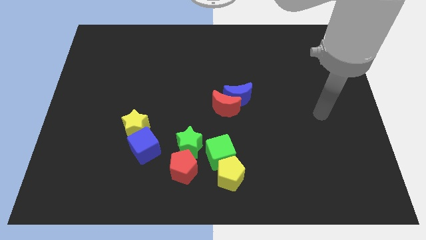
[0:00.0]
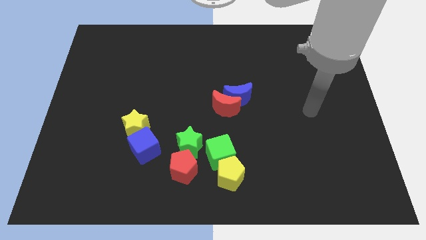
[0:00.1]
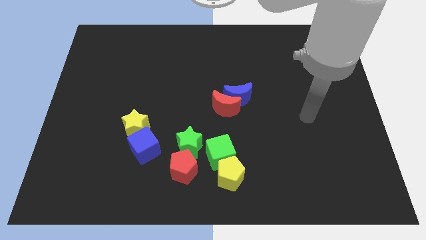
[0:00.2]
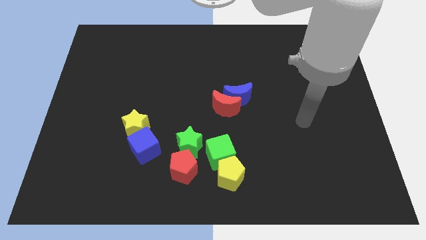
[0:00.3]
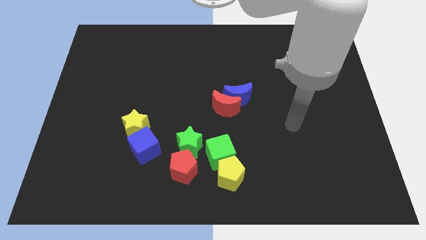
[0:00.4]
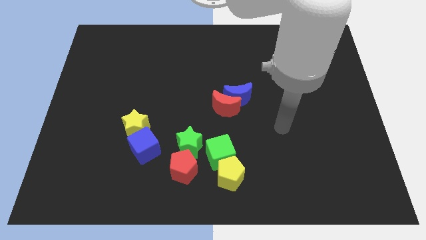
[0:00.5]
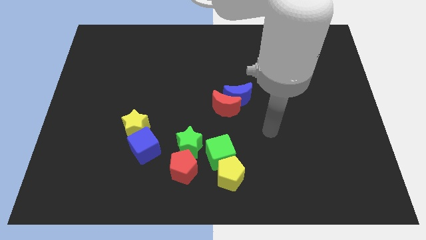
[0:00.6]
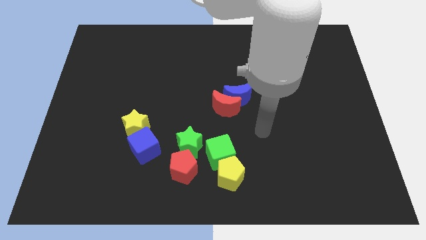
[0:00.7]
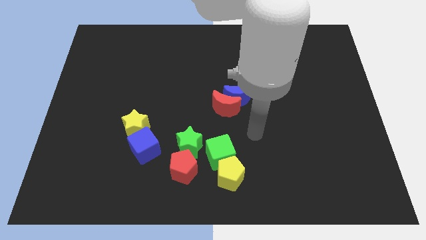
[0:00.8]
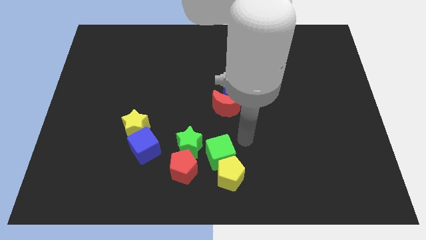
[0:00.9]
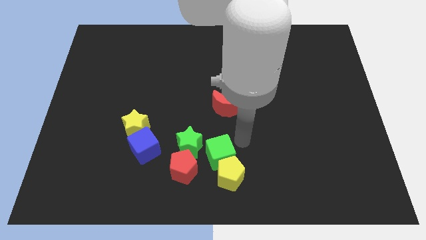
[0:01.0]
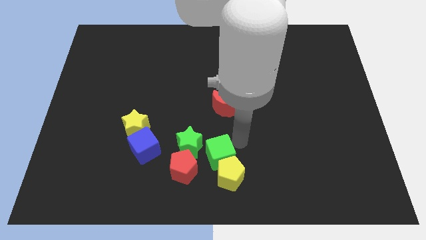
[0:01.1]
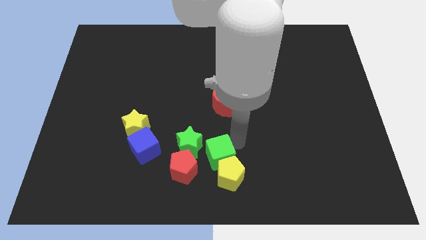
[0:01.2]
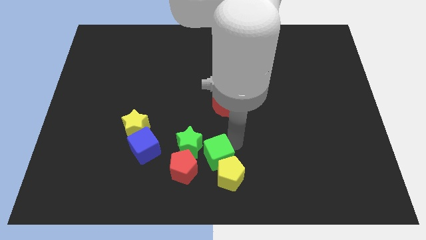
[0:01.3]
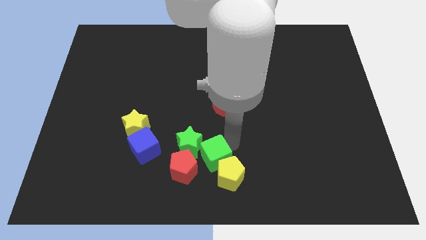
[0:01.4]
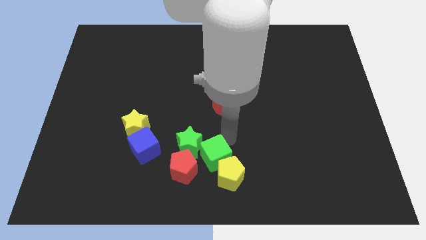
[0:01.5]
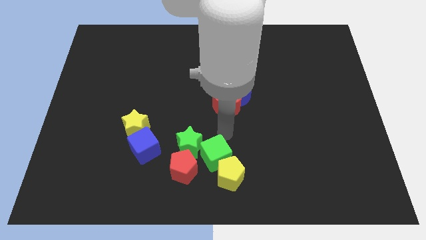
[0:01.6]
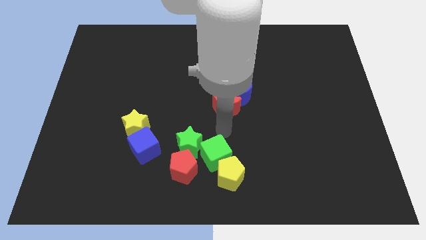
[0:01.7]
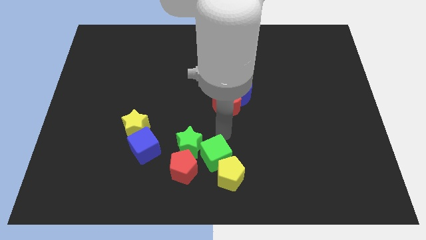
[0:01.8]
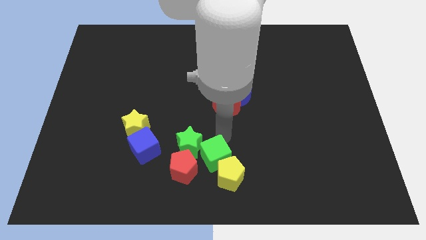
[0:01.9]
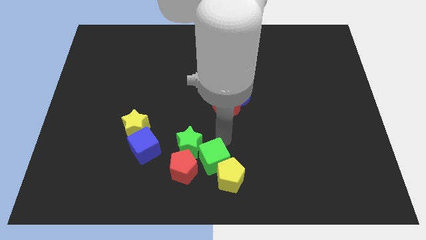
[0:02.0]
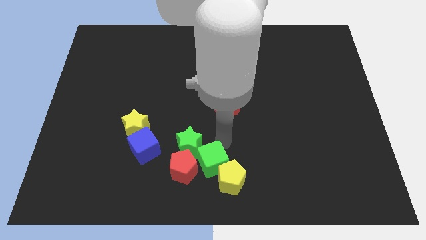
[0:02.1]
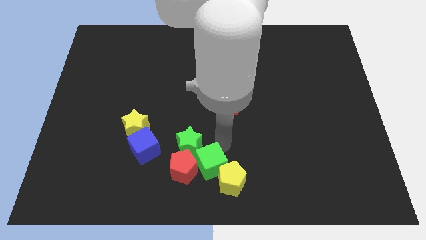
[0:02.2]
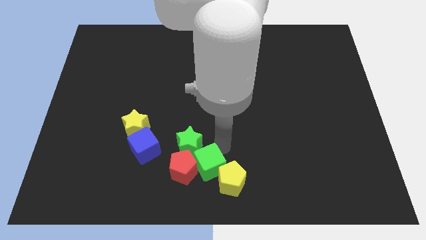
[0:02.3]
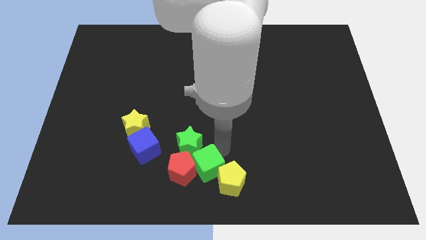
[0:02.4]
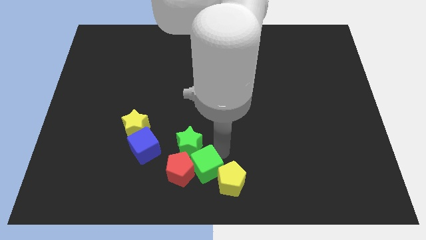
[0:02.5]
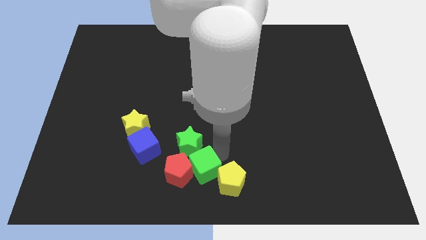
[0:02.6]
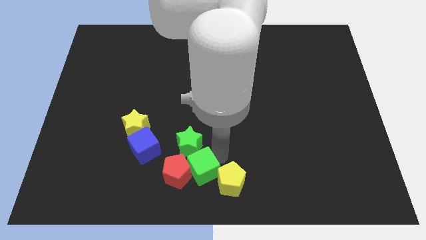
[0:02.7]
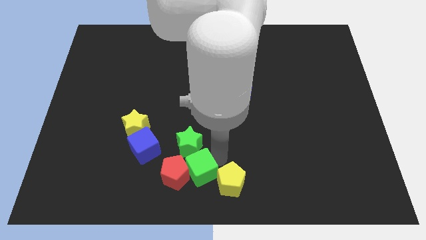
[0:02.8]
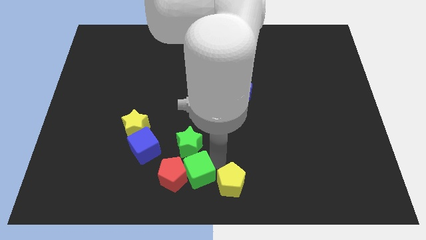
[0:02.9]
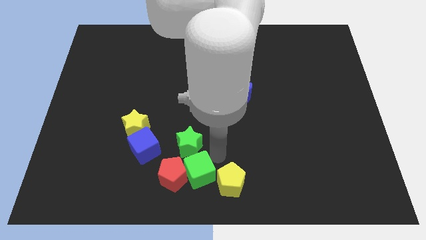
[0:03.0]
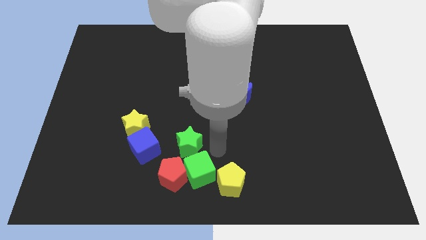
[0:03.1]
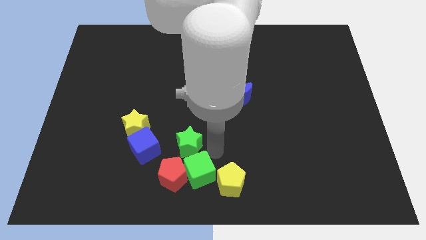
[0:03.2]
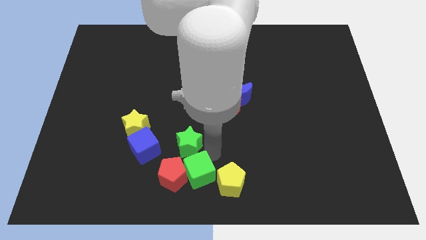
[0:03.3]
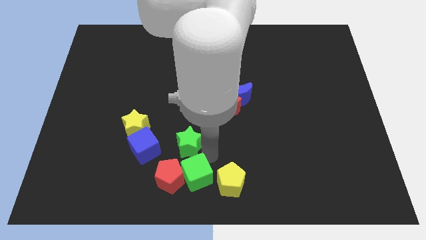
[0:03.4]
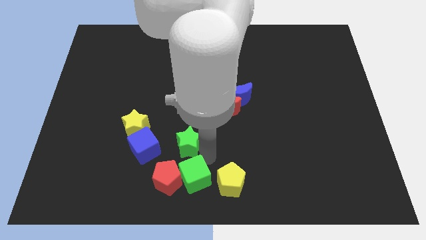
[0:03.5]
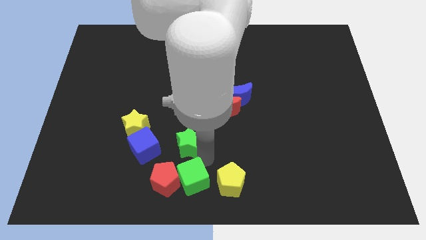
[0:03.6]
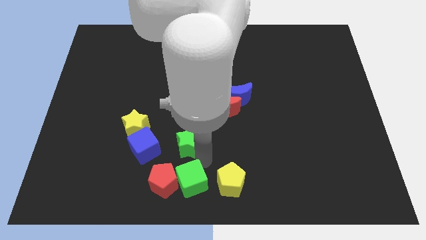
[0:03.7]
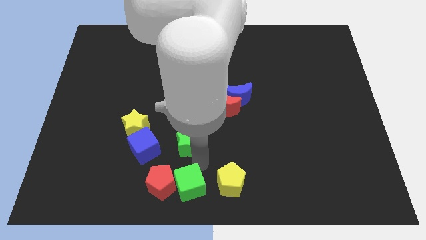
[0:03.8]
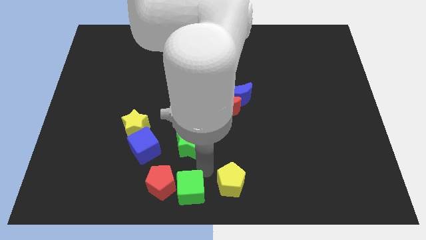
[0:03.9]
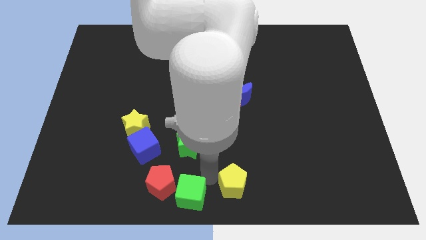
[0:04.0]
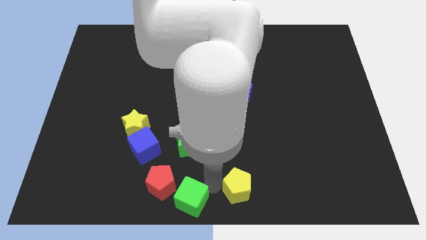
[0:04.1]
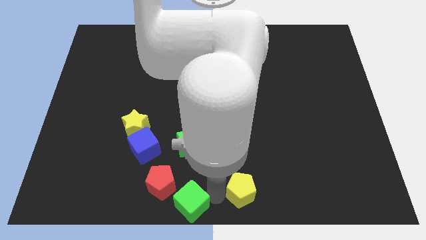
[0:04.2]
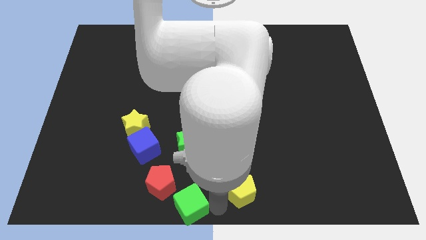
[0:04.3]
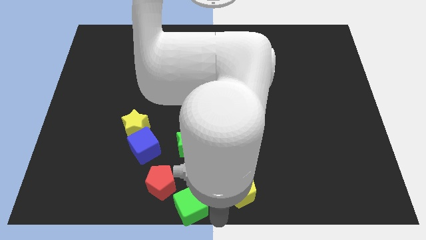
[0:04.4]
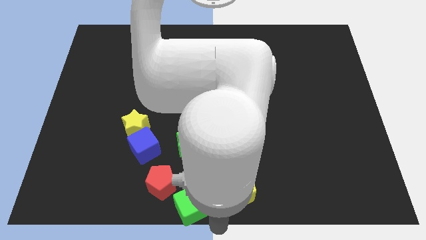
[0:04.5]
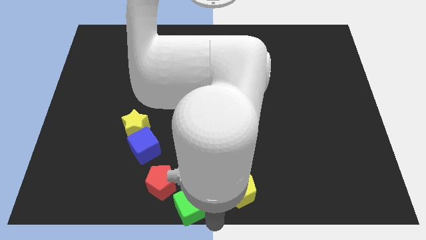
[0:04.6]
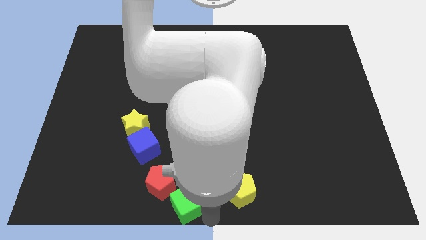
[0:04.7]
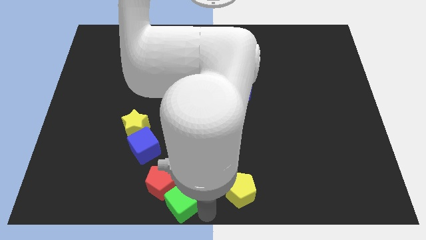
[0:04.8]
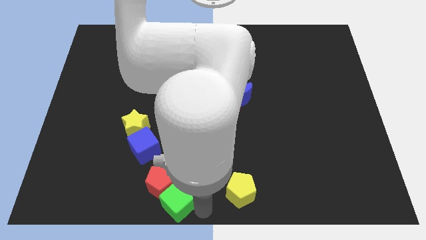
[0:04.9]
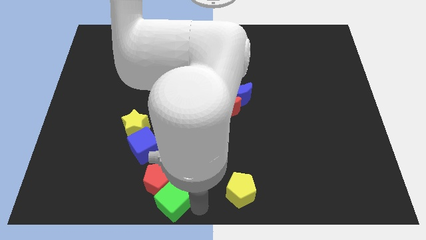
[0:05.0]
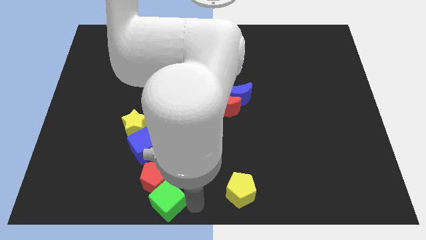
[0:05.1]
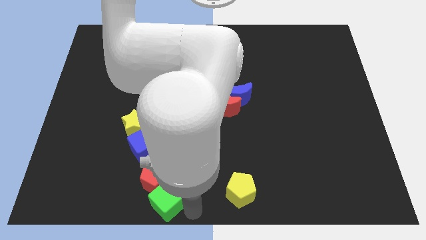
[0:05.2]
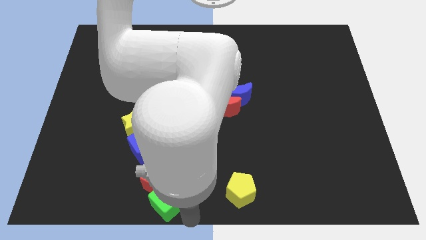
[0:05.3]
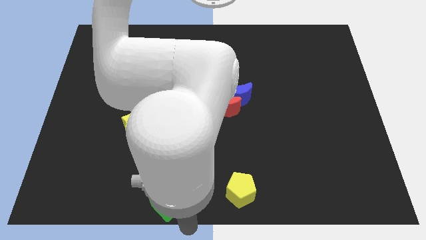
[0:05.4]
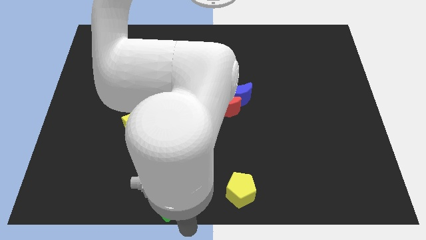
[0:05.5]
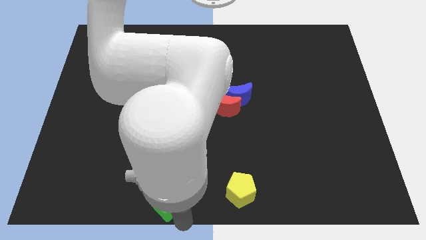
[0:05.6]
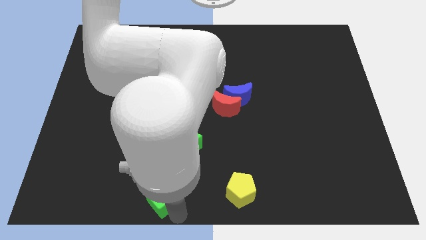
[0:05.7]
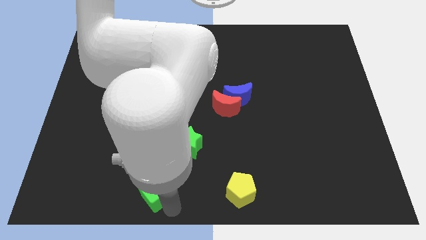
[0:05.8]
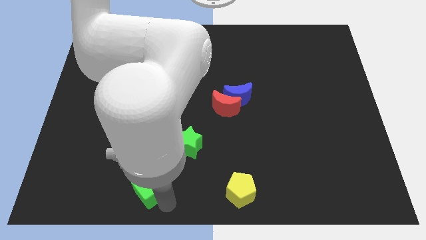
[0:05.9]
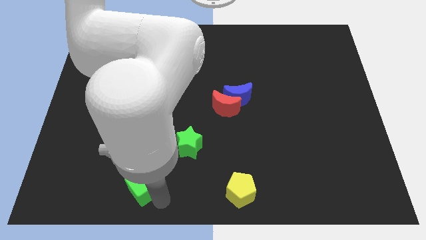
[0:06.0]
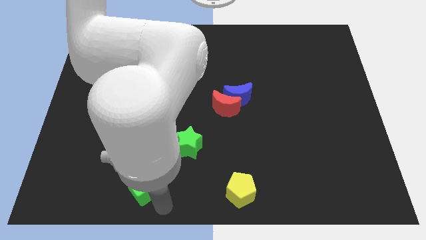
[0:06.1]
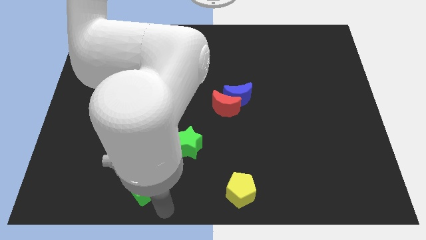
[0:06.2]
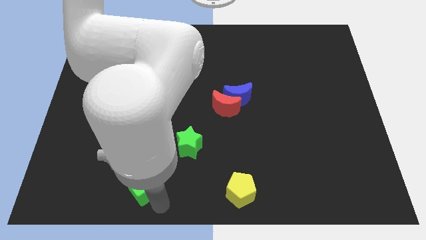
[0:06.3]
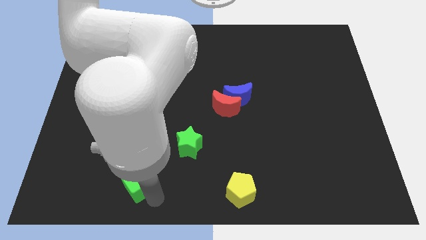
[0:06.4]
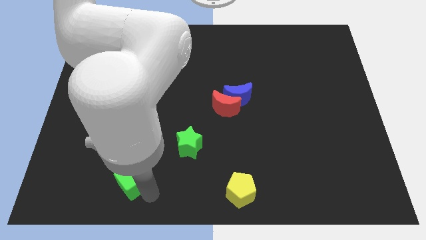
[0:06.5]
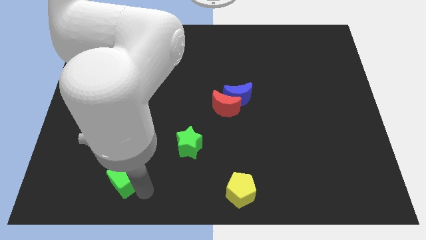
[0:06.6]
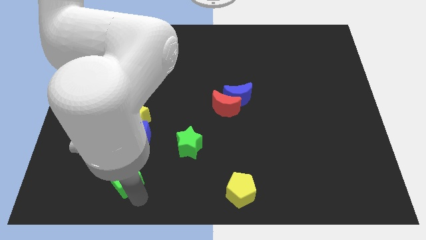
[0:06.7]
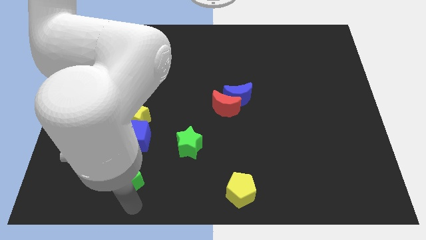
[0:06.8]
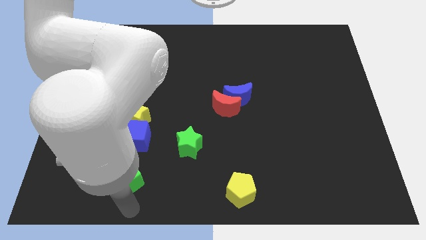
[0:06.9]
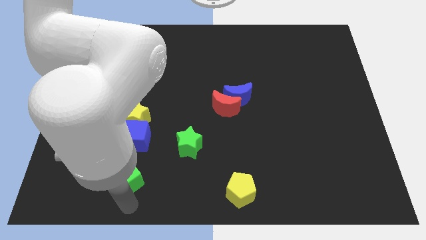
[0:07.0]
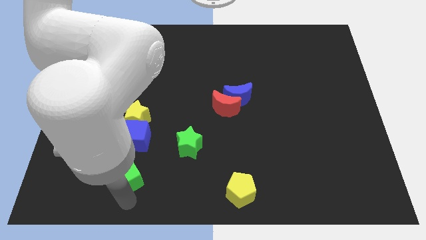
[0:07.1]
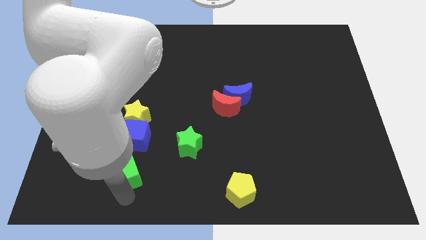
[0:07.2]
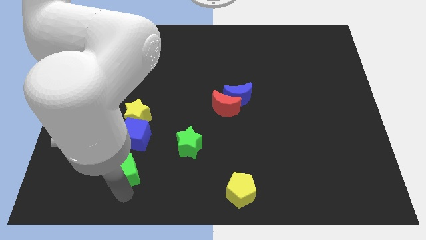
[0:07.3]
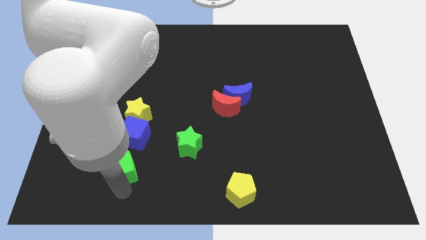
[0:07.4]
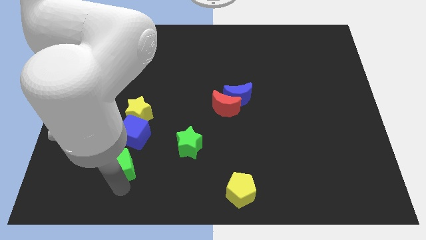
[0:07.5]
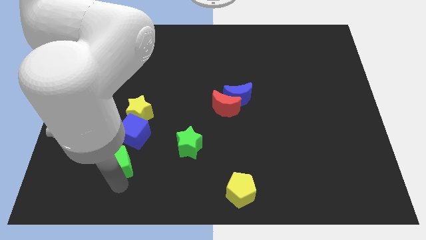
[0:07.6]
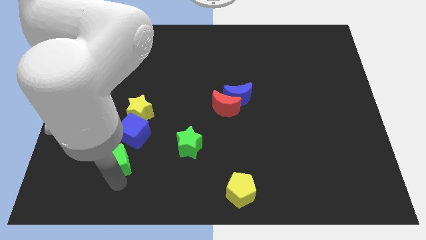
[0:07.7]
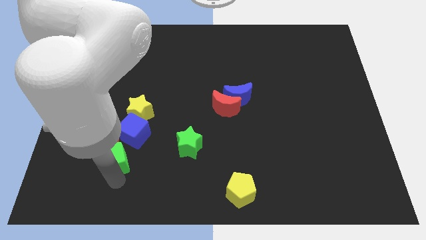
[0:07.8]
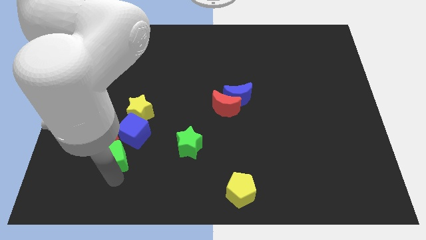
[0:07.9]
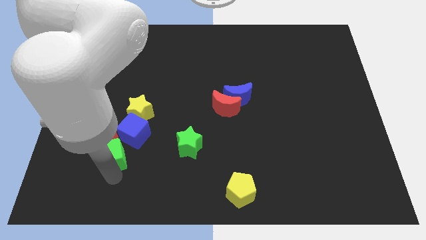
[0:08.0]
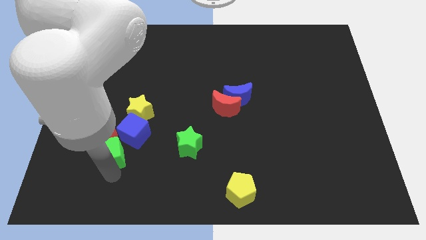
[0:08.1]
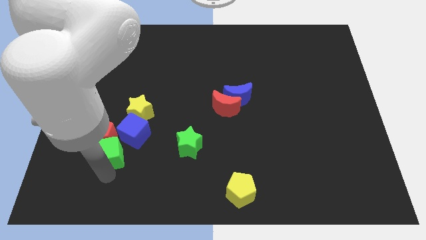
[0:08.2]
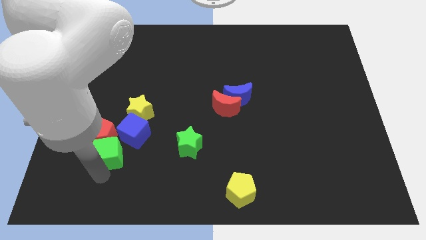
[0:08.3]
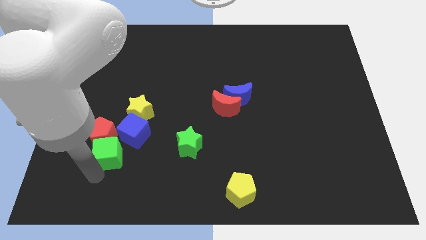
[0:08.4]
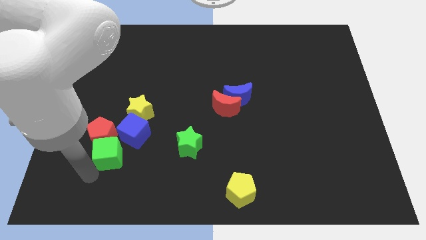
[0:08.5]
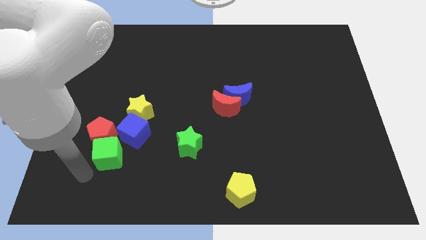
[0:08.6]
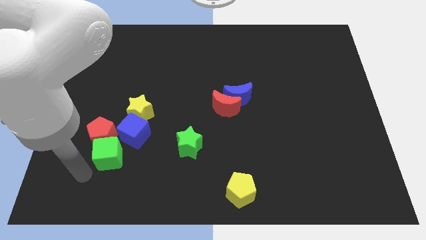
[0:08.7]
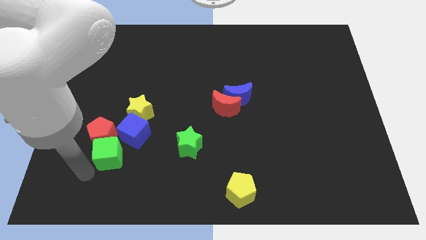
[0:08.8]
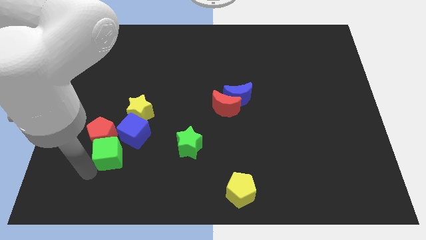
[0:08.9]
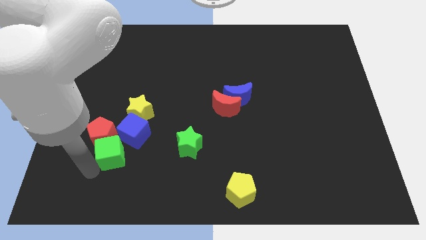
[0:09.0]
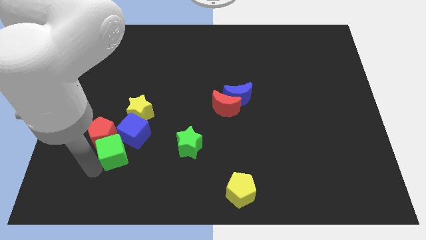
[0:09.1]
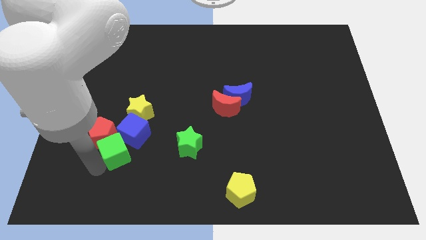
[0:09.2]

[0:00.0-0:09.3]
put the green cube left of the green star
